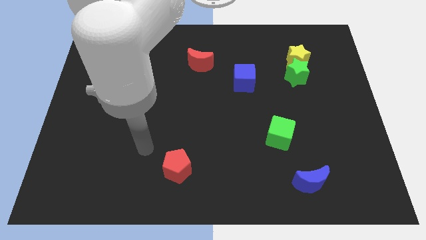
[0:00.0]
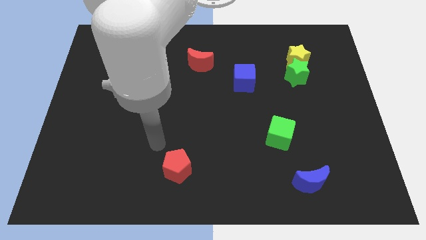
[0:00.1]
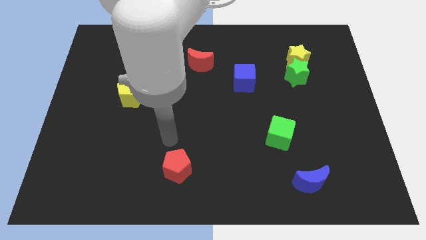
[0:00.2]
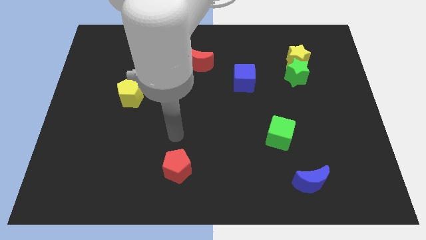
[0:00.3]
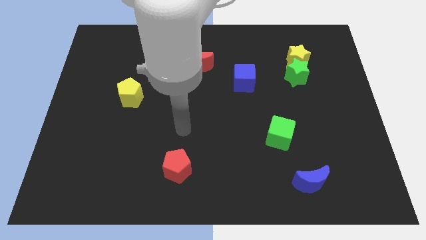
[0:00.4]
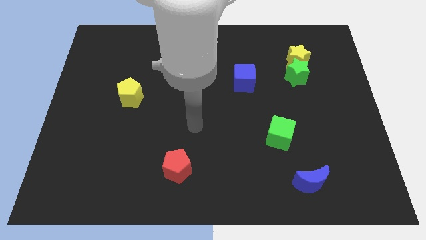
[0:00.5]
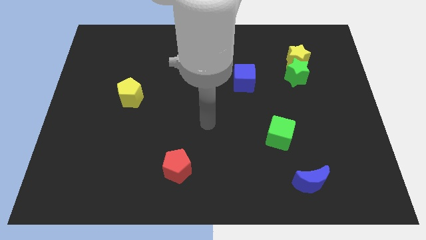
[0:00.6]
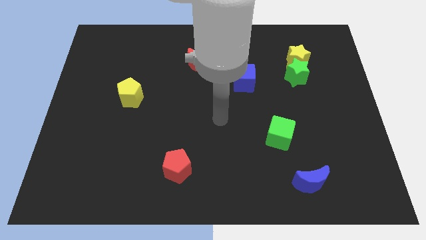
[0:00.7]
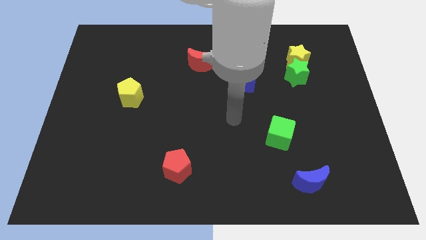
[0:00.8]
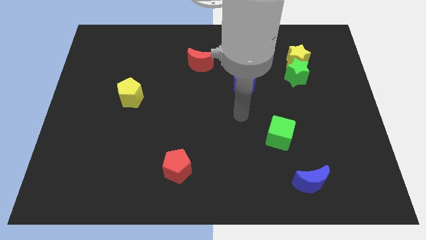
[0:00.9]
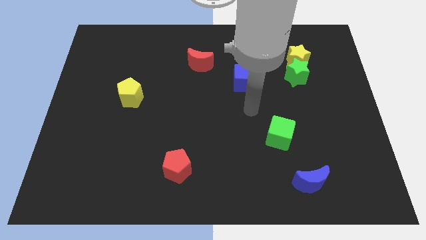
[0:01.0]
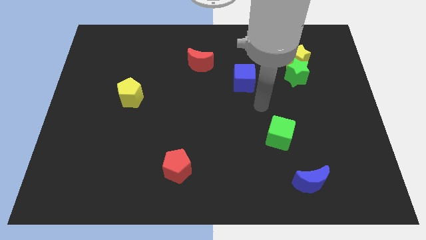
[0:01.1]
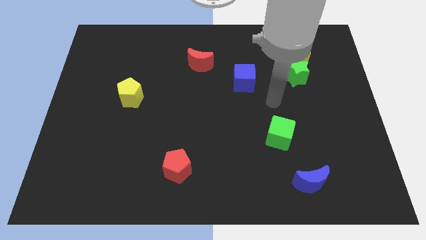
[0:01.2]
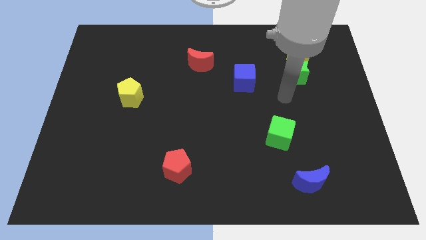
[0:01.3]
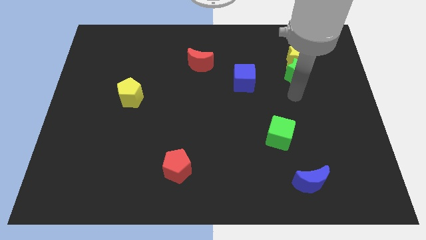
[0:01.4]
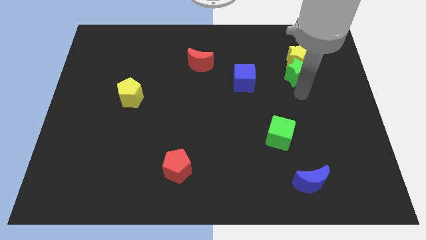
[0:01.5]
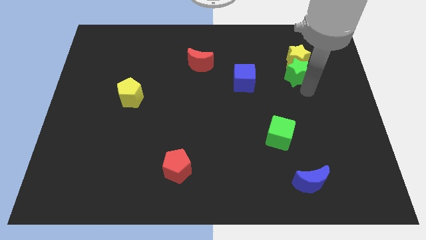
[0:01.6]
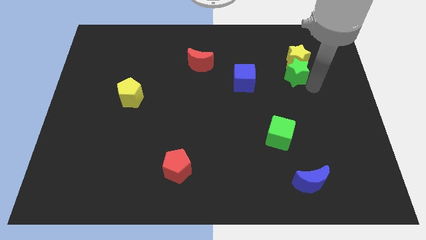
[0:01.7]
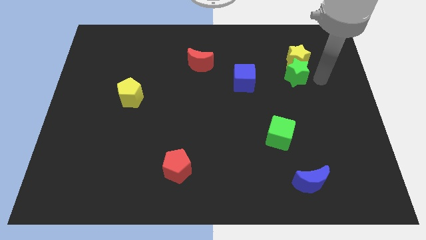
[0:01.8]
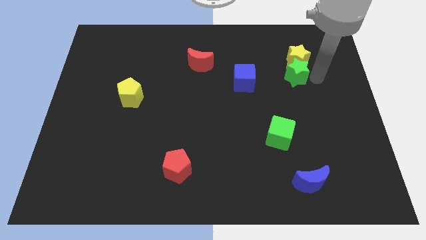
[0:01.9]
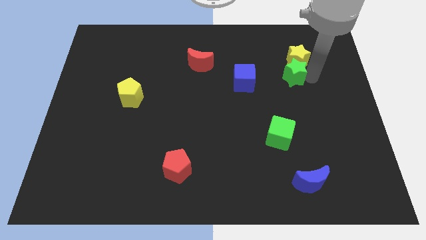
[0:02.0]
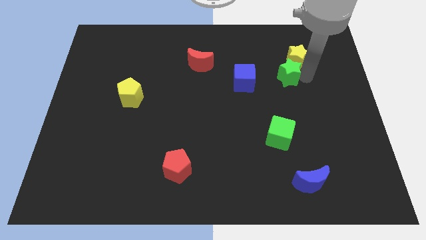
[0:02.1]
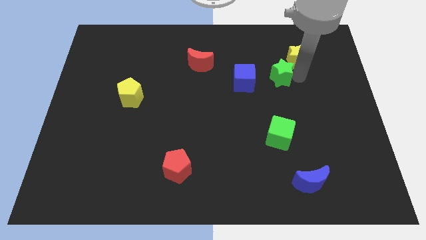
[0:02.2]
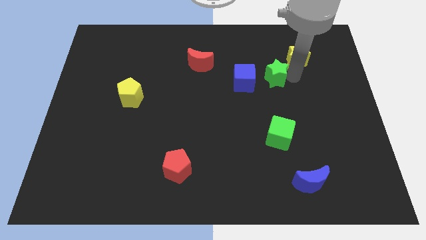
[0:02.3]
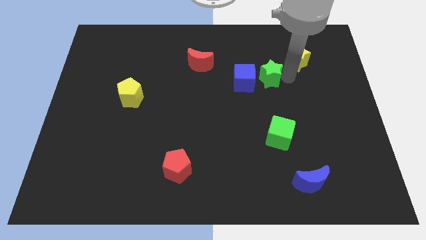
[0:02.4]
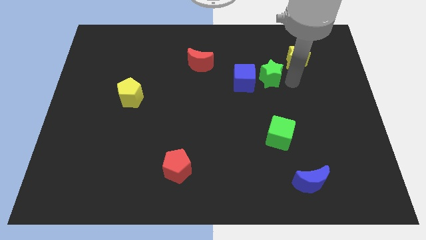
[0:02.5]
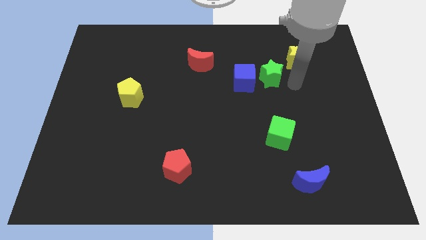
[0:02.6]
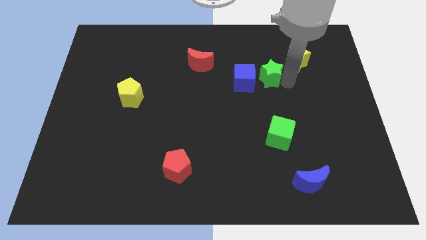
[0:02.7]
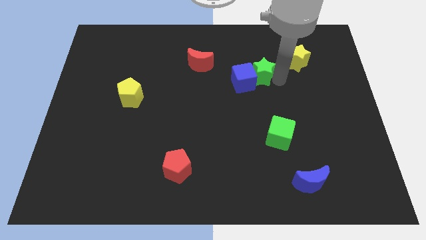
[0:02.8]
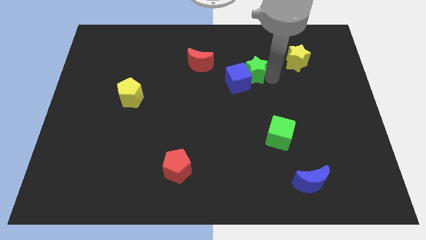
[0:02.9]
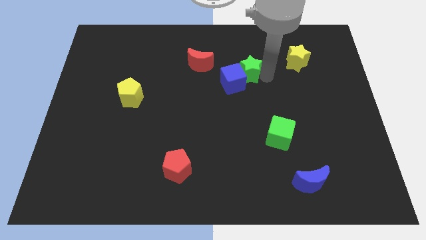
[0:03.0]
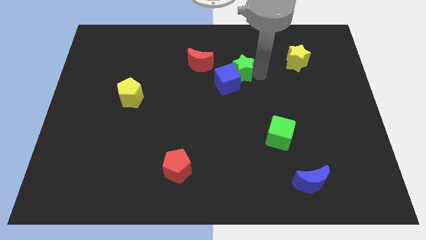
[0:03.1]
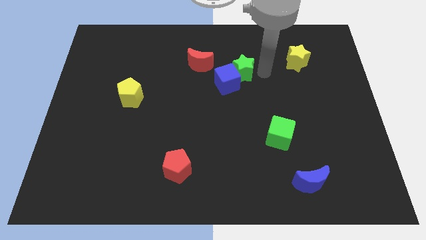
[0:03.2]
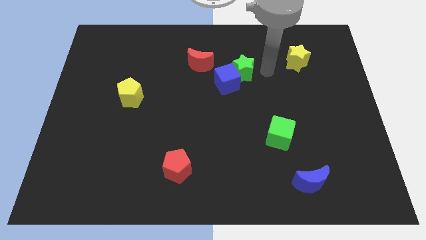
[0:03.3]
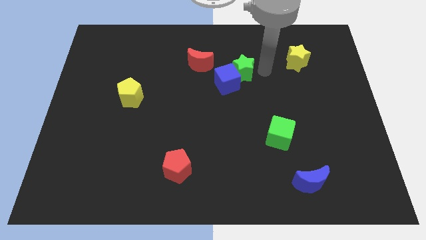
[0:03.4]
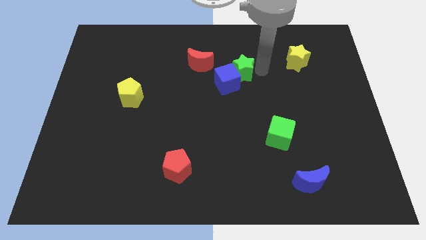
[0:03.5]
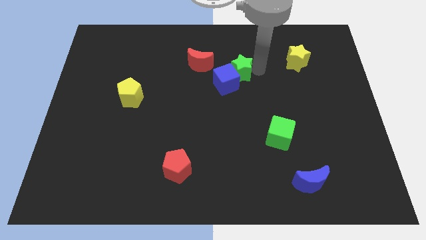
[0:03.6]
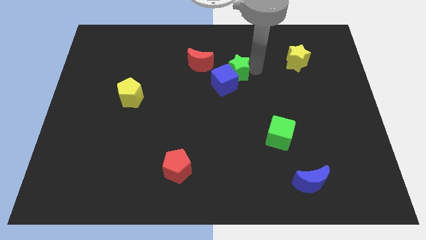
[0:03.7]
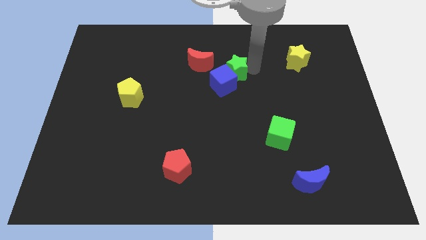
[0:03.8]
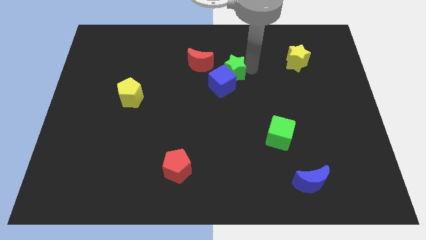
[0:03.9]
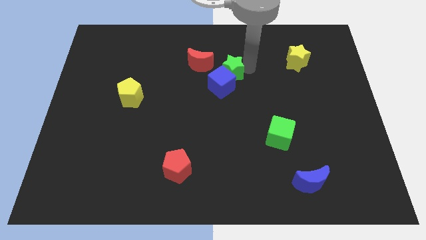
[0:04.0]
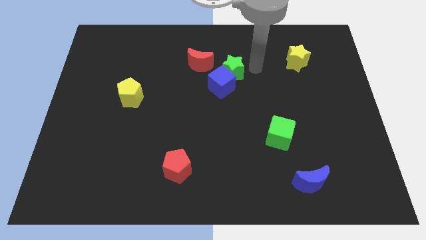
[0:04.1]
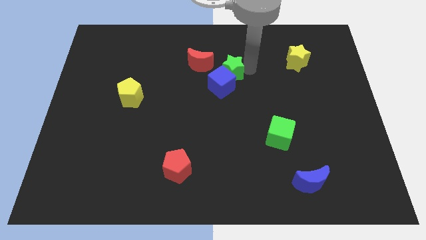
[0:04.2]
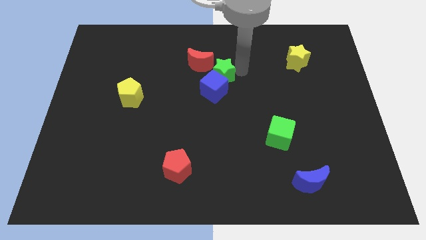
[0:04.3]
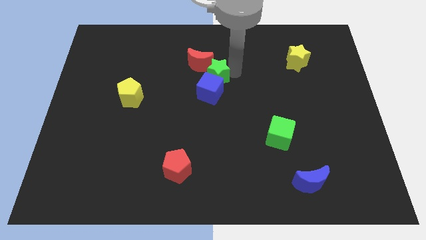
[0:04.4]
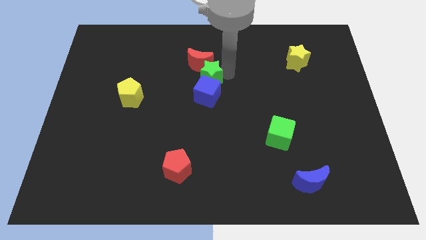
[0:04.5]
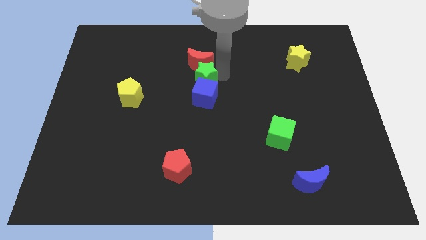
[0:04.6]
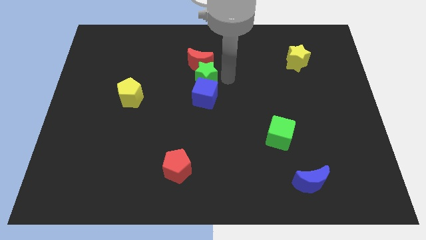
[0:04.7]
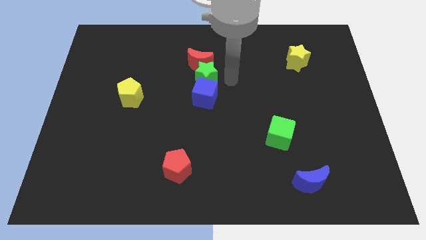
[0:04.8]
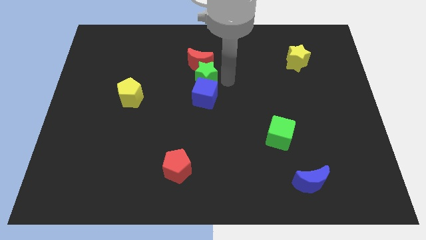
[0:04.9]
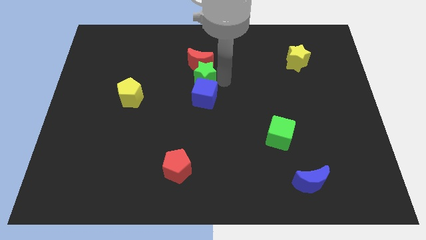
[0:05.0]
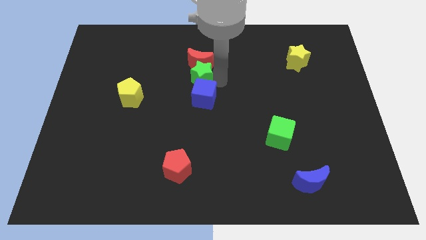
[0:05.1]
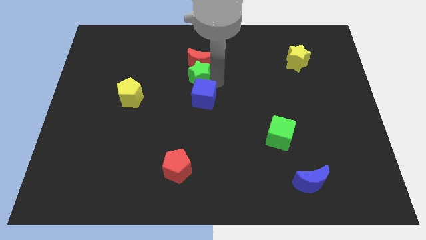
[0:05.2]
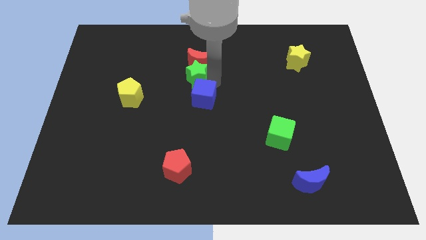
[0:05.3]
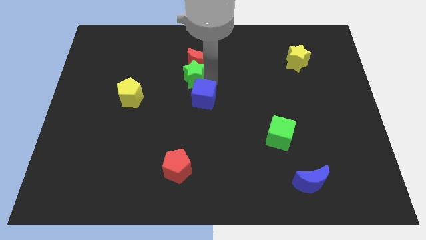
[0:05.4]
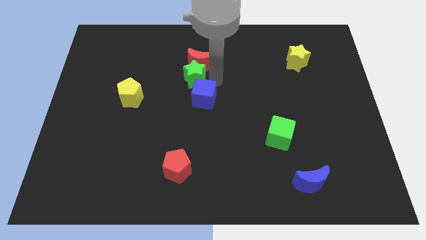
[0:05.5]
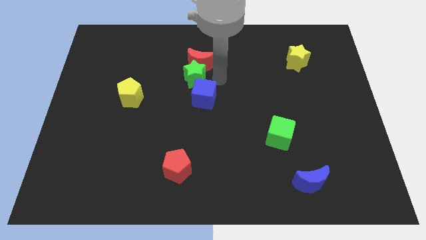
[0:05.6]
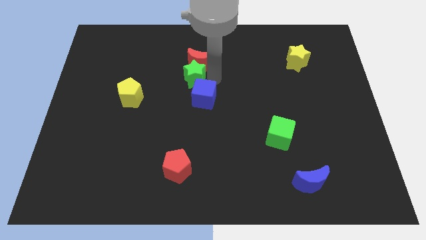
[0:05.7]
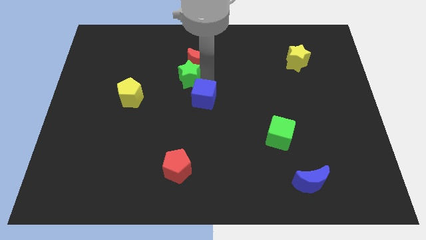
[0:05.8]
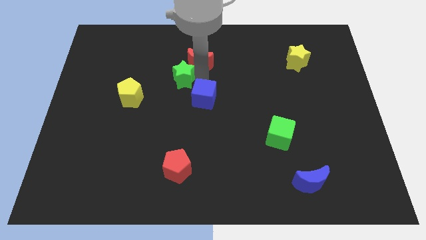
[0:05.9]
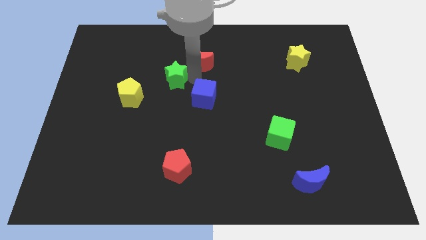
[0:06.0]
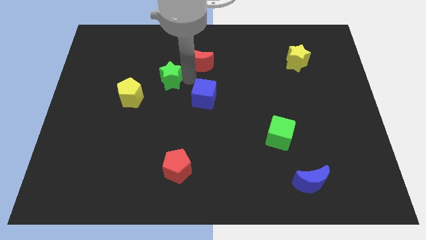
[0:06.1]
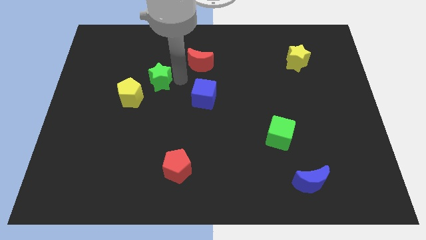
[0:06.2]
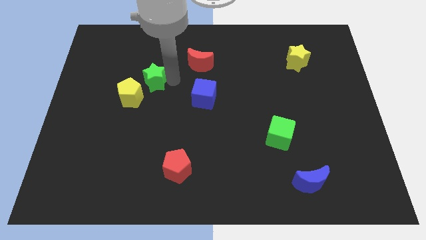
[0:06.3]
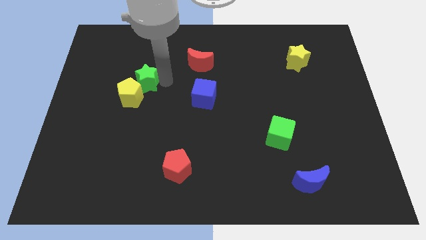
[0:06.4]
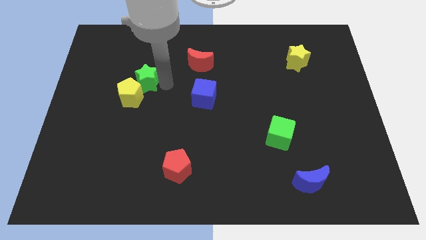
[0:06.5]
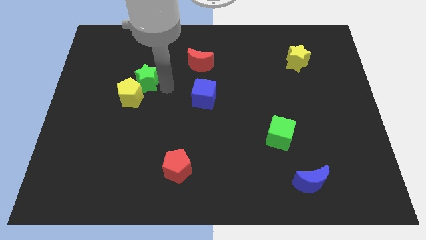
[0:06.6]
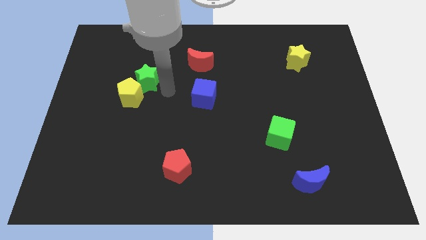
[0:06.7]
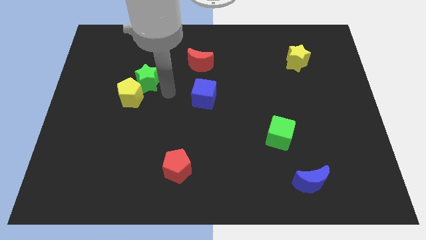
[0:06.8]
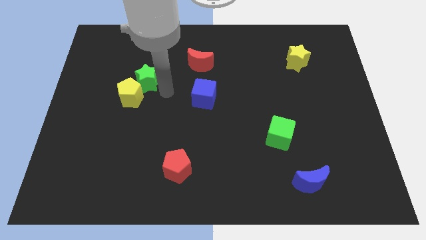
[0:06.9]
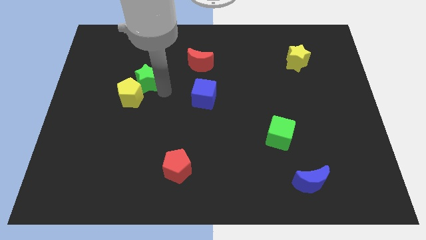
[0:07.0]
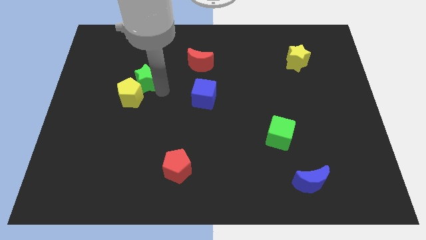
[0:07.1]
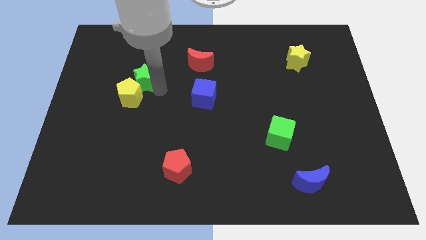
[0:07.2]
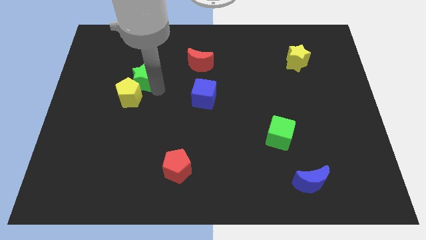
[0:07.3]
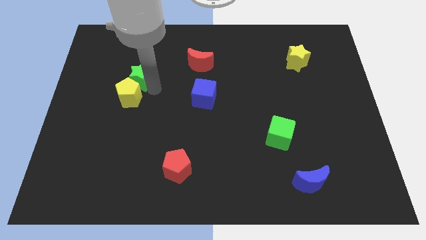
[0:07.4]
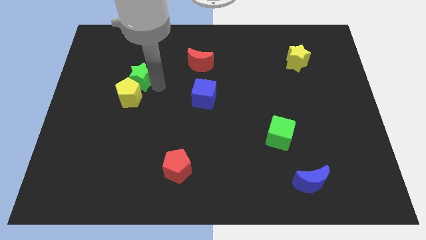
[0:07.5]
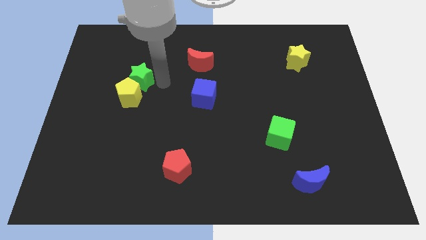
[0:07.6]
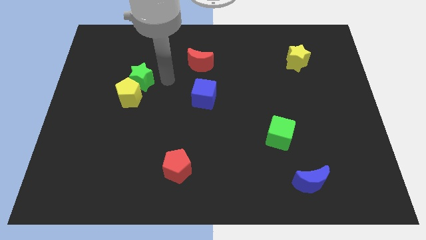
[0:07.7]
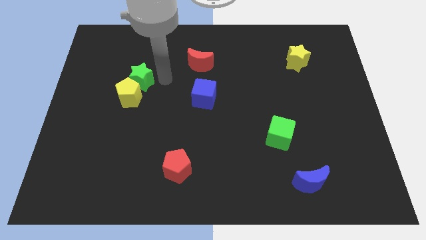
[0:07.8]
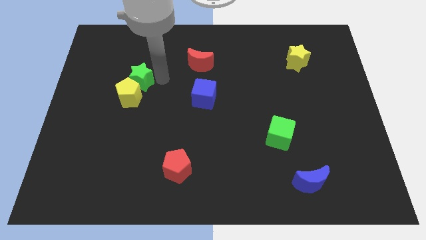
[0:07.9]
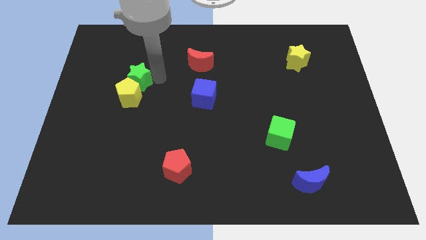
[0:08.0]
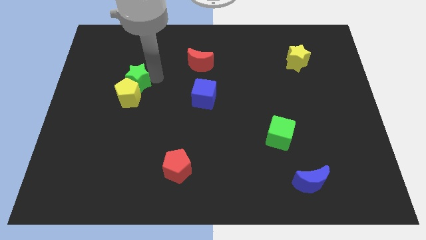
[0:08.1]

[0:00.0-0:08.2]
slide the green star to the top left of the yellow pentagon
